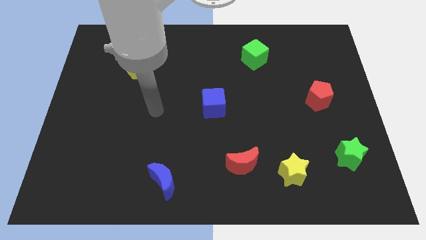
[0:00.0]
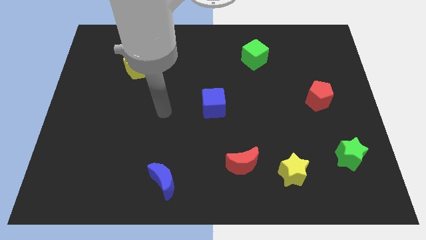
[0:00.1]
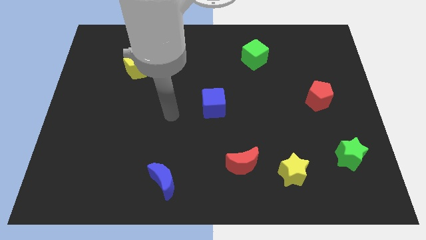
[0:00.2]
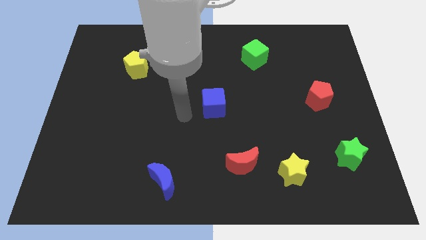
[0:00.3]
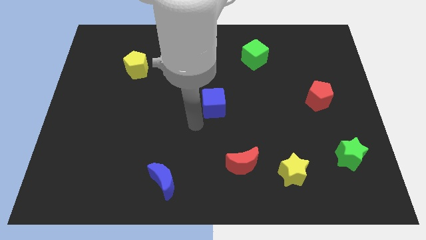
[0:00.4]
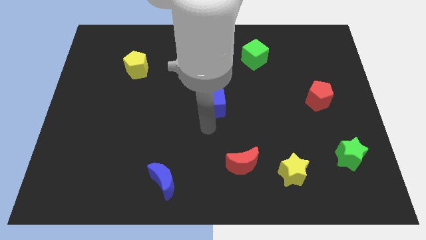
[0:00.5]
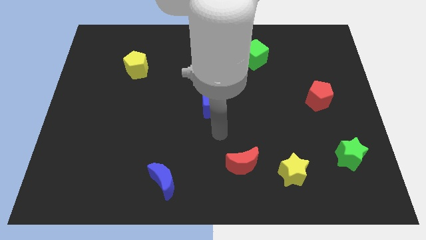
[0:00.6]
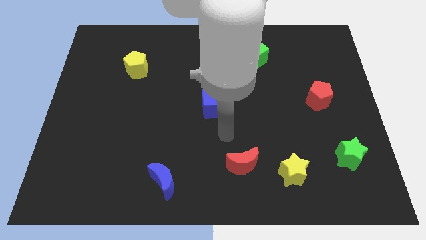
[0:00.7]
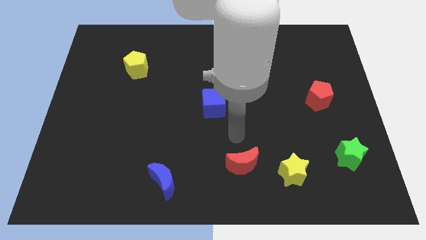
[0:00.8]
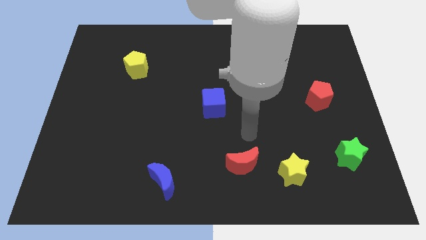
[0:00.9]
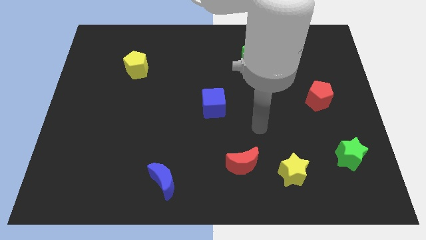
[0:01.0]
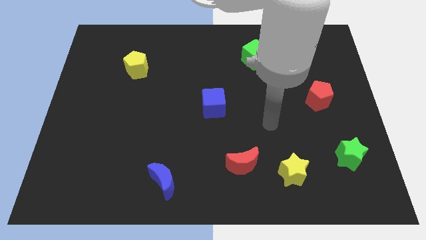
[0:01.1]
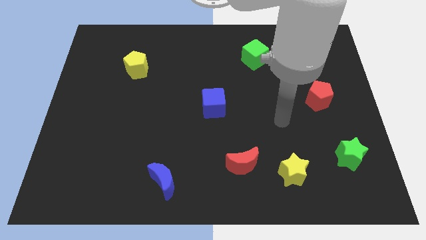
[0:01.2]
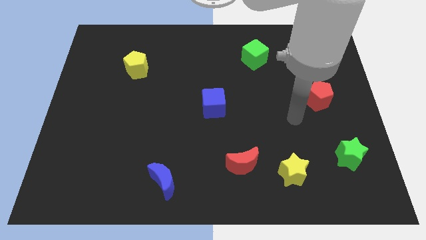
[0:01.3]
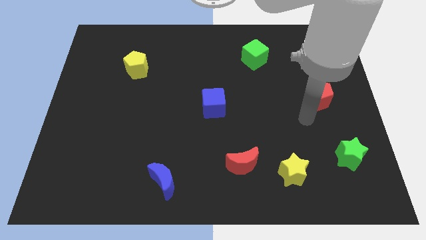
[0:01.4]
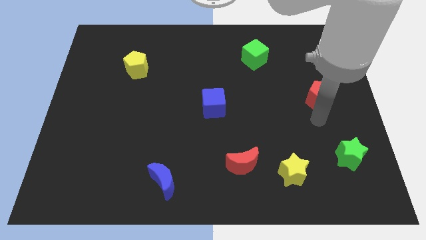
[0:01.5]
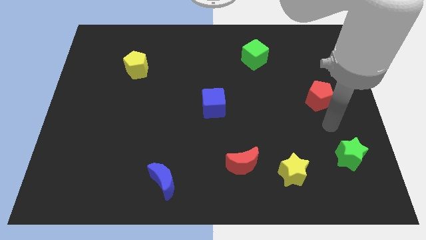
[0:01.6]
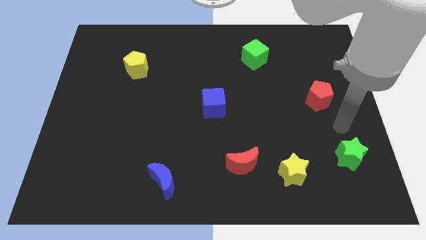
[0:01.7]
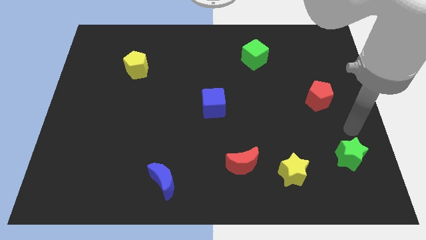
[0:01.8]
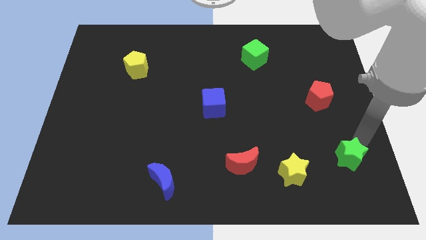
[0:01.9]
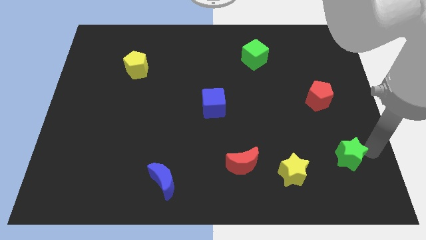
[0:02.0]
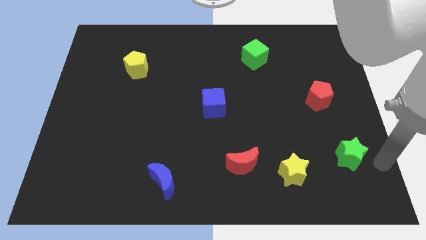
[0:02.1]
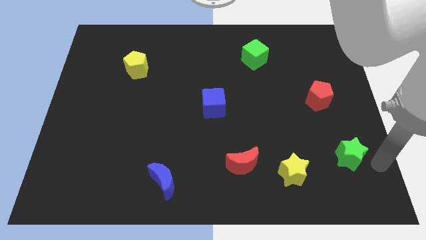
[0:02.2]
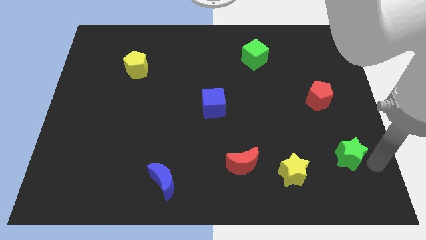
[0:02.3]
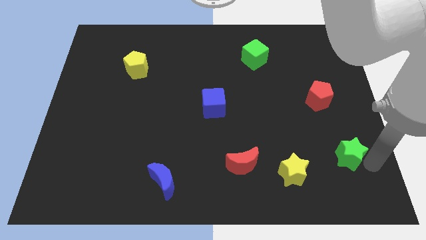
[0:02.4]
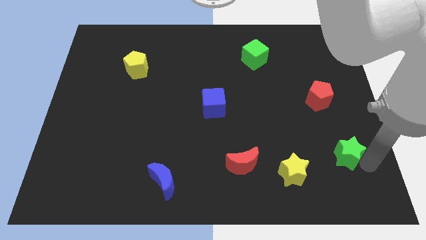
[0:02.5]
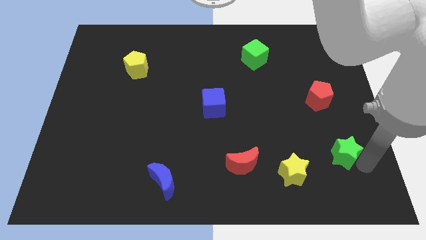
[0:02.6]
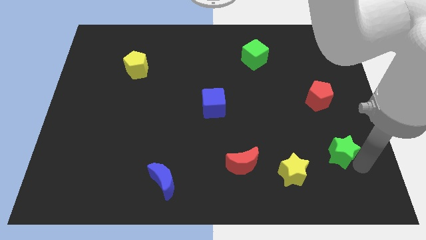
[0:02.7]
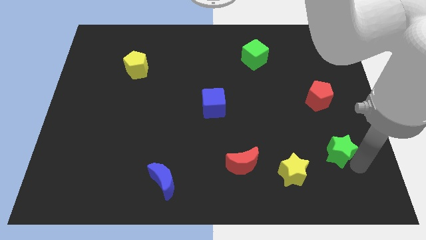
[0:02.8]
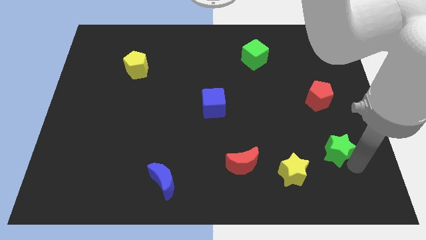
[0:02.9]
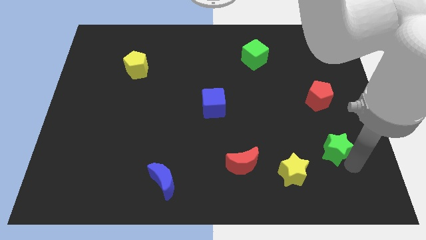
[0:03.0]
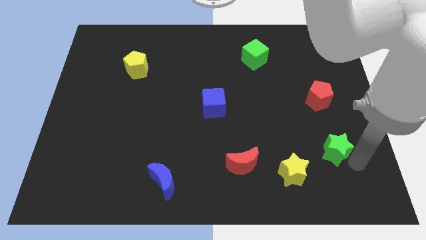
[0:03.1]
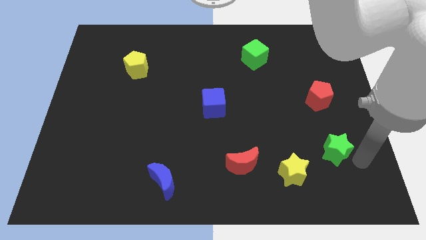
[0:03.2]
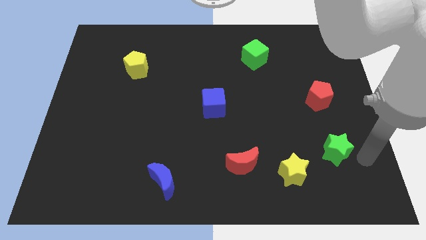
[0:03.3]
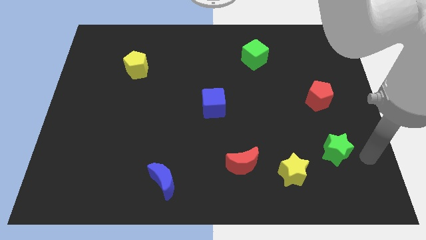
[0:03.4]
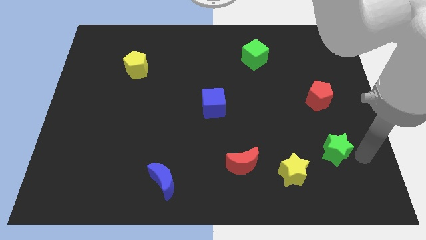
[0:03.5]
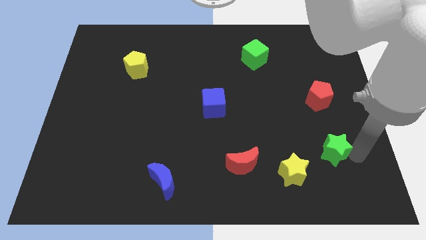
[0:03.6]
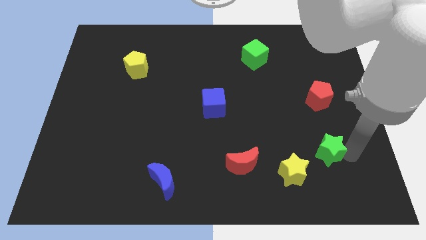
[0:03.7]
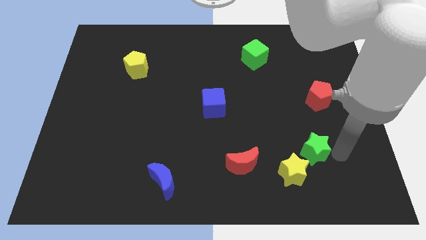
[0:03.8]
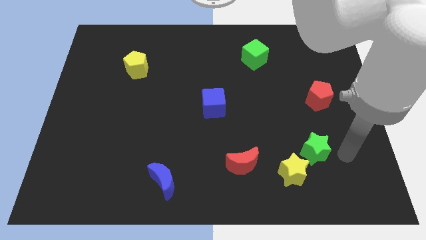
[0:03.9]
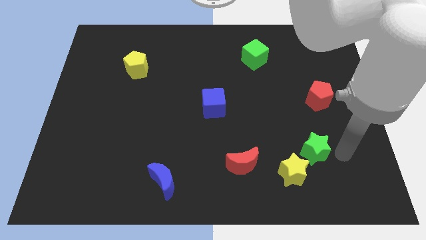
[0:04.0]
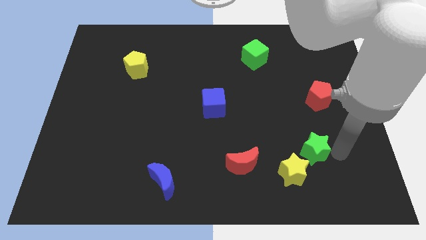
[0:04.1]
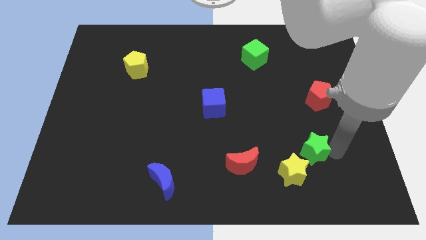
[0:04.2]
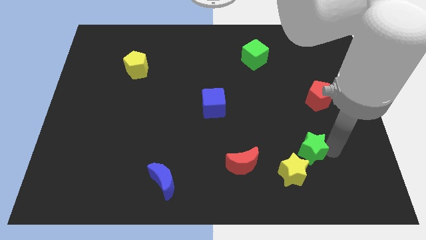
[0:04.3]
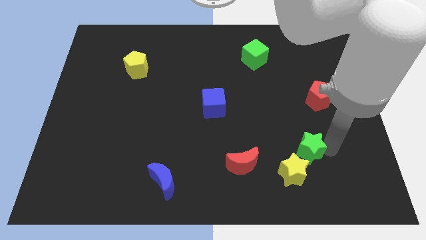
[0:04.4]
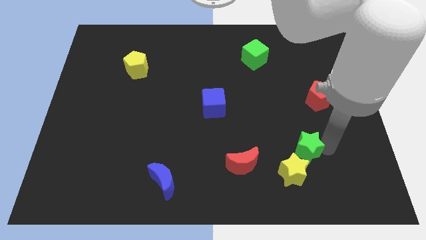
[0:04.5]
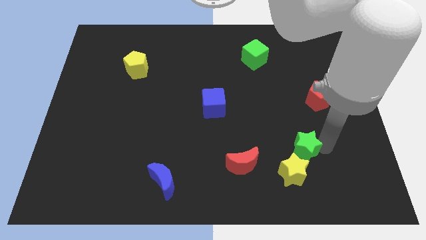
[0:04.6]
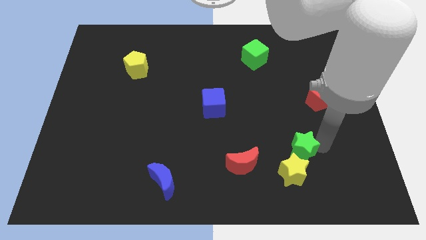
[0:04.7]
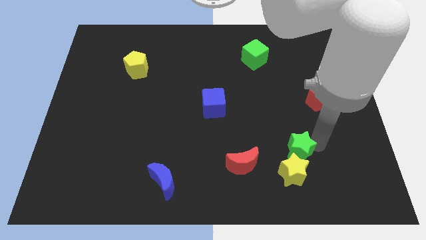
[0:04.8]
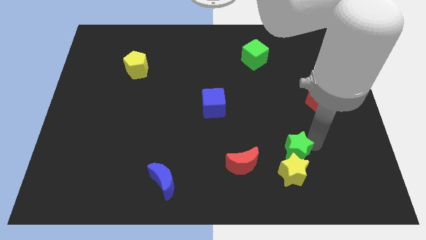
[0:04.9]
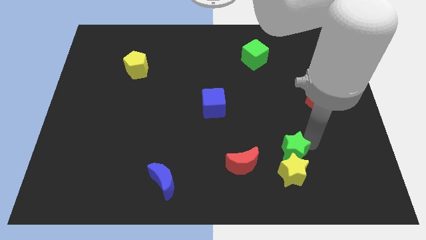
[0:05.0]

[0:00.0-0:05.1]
slide the green star to the top left of the yellow star

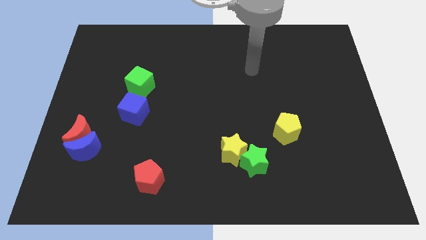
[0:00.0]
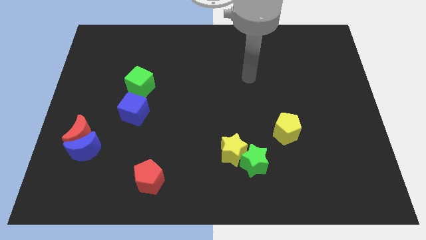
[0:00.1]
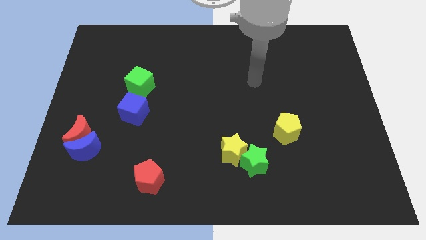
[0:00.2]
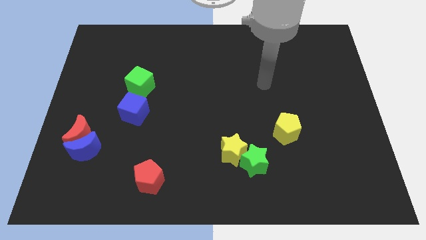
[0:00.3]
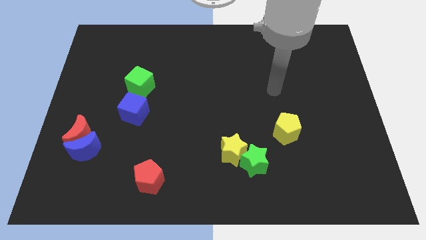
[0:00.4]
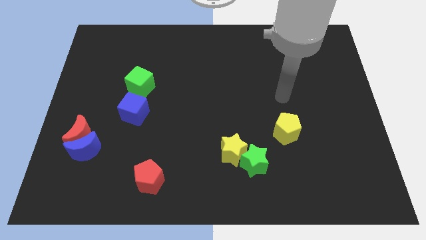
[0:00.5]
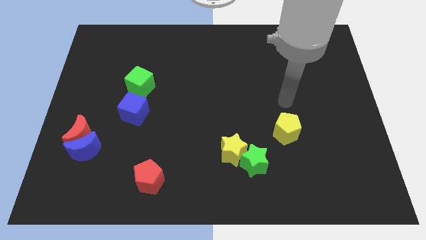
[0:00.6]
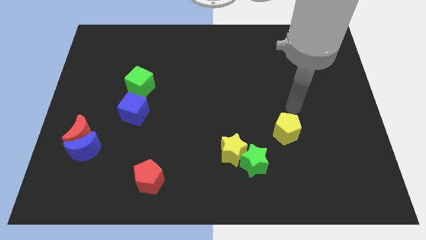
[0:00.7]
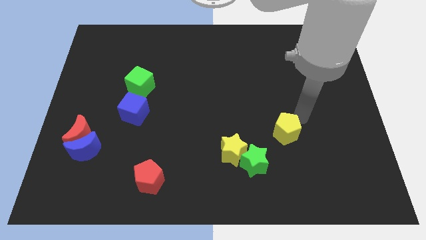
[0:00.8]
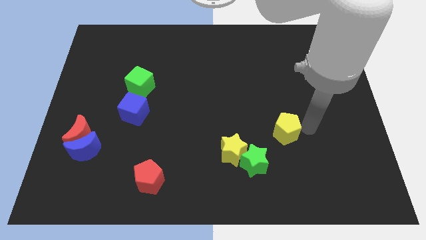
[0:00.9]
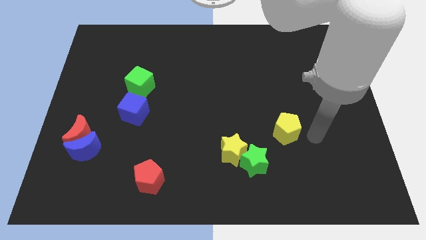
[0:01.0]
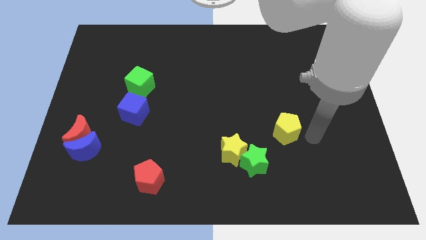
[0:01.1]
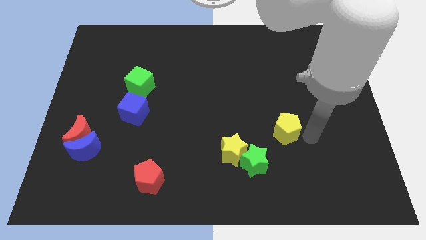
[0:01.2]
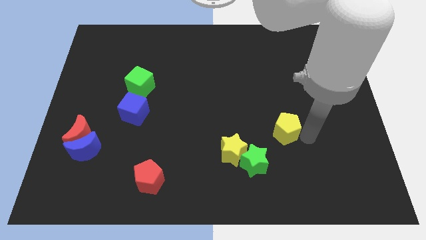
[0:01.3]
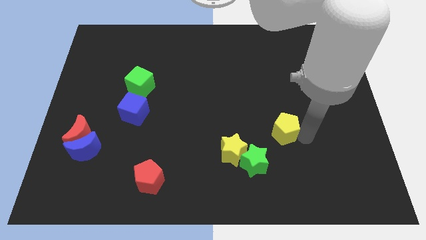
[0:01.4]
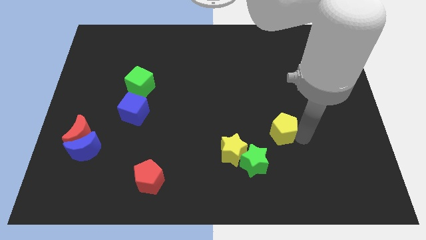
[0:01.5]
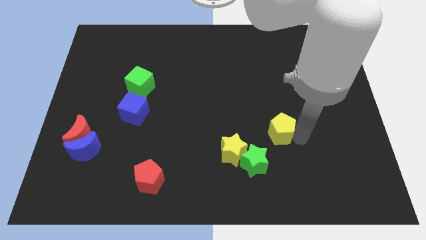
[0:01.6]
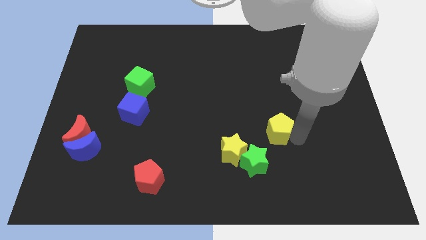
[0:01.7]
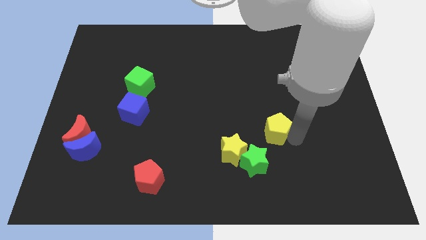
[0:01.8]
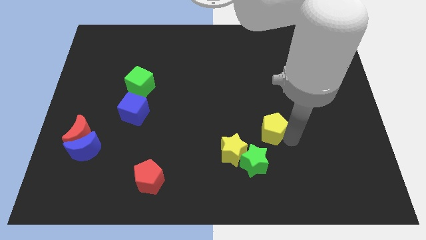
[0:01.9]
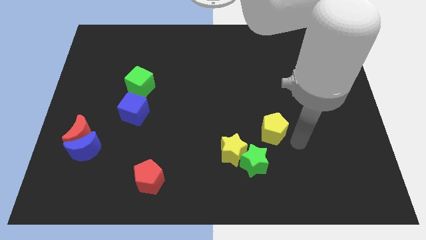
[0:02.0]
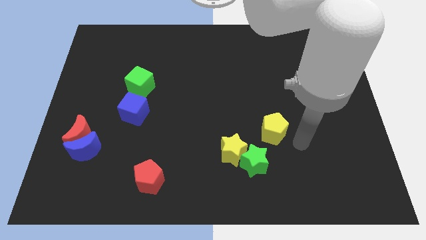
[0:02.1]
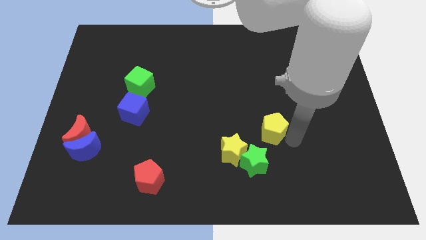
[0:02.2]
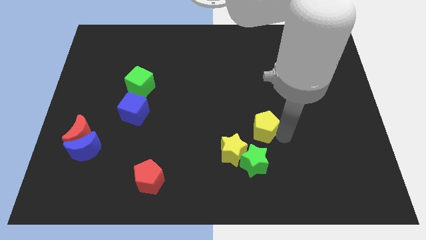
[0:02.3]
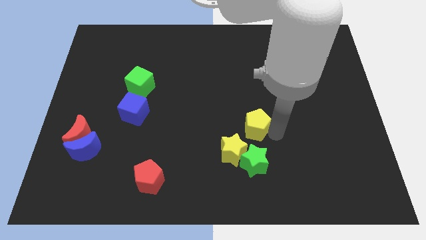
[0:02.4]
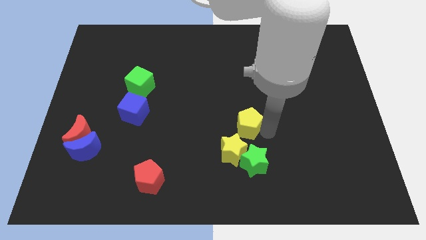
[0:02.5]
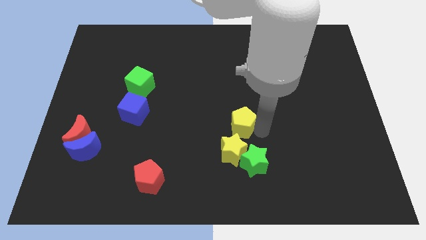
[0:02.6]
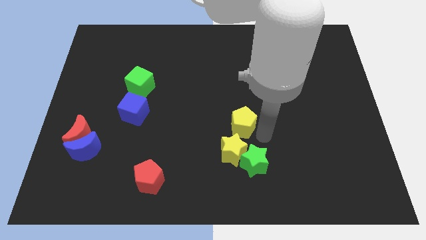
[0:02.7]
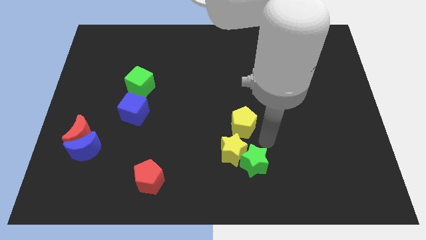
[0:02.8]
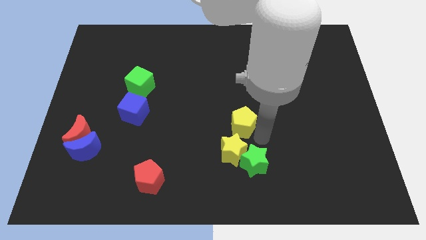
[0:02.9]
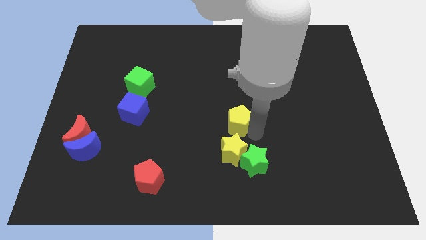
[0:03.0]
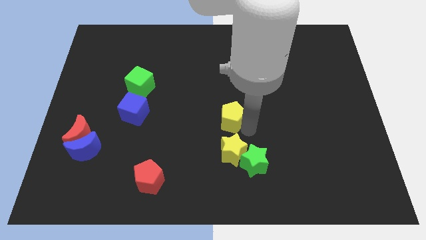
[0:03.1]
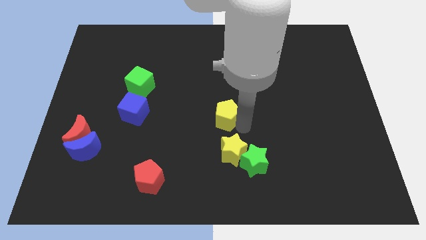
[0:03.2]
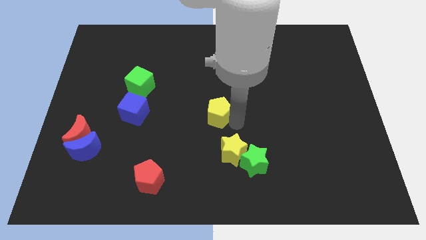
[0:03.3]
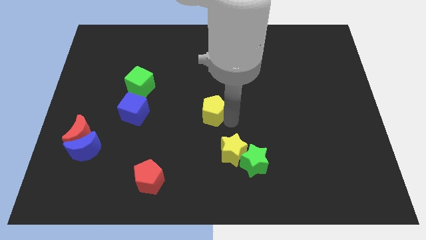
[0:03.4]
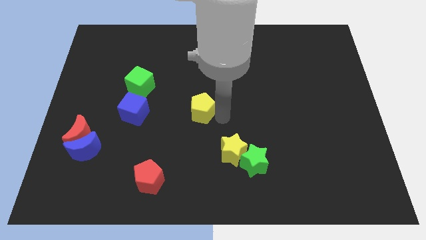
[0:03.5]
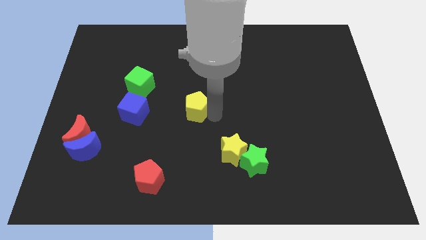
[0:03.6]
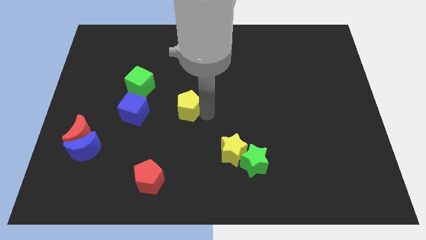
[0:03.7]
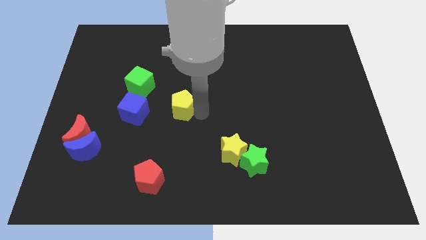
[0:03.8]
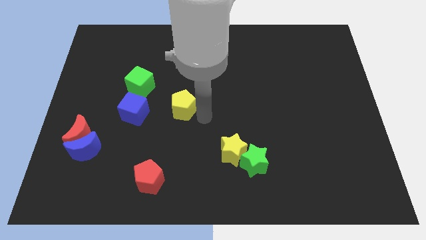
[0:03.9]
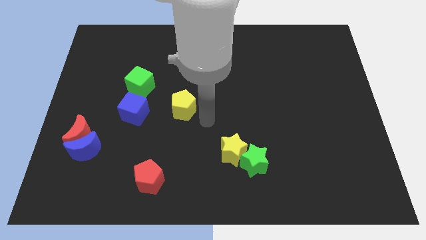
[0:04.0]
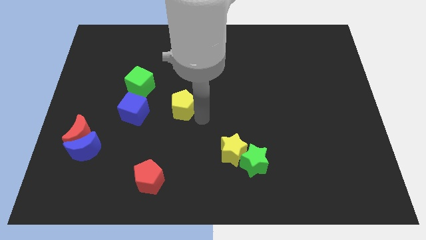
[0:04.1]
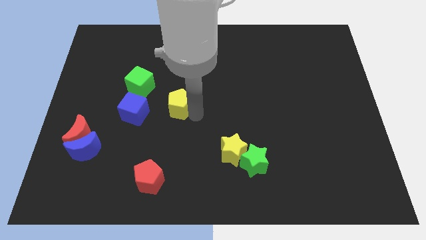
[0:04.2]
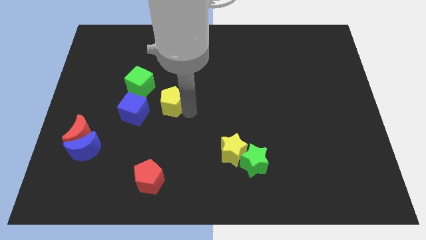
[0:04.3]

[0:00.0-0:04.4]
put the yellow pentagon to the top right side of the blue cube
